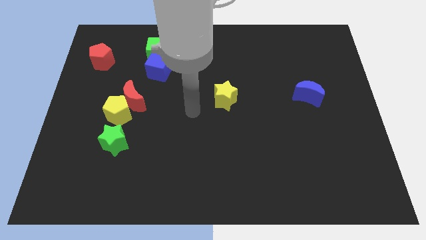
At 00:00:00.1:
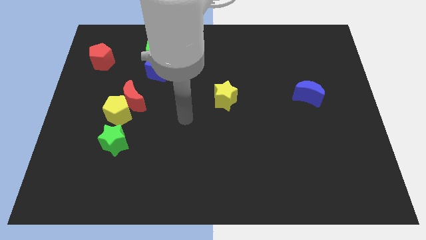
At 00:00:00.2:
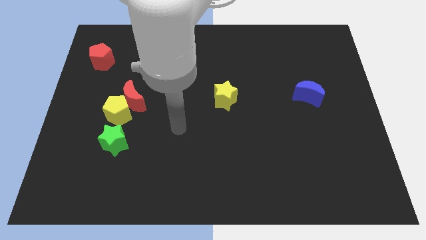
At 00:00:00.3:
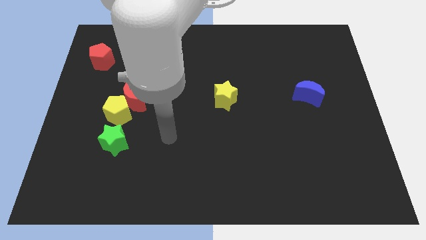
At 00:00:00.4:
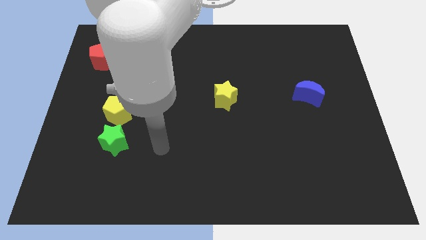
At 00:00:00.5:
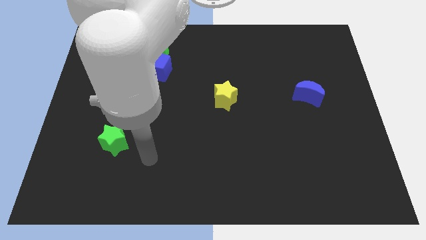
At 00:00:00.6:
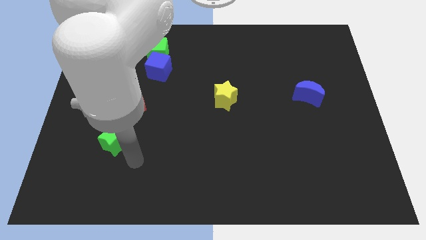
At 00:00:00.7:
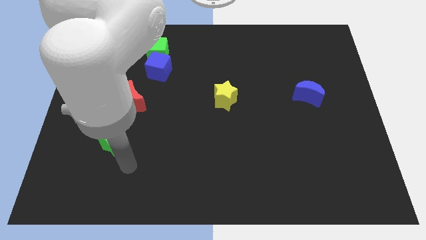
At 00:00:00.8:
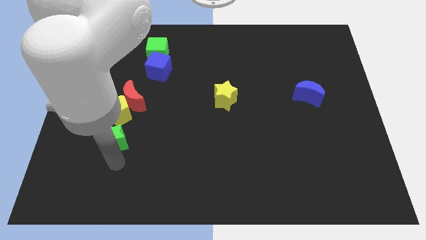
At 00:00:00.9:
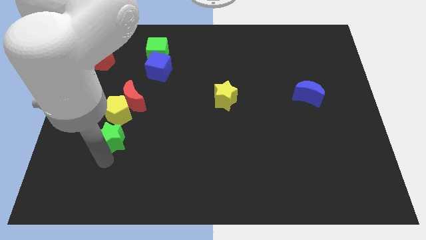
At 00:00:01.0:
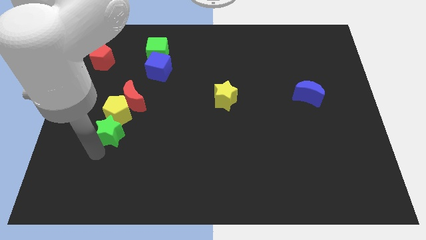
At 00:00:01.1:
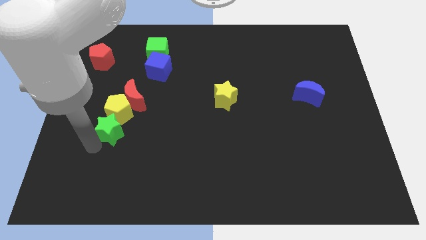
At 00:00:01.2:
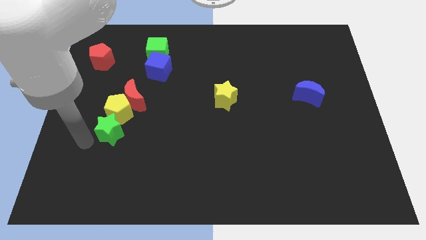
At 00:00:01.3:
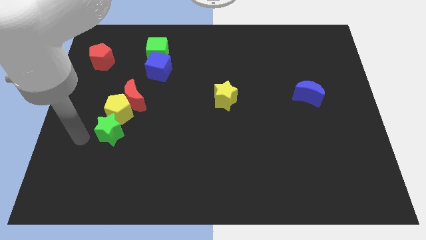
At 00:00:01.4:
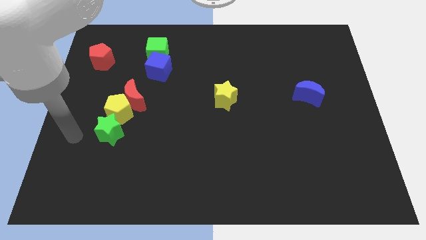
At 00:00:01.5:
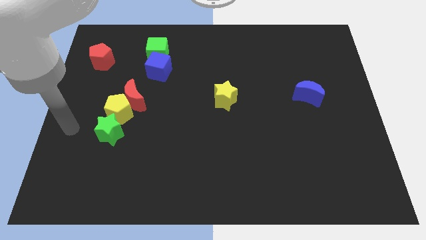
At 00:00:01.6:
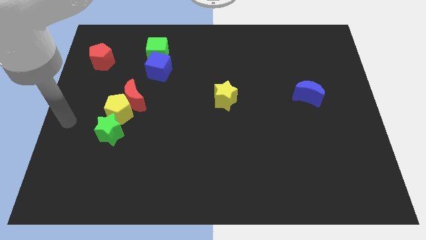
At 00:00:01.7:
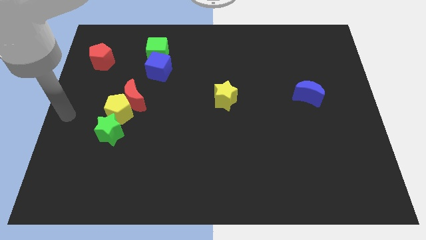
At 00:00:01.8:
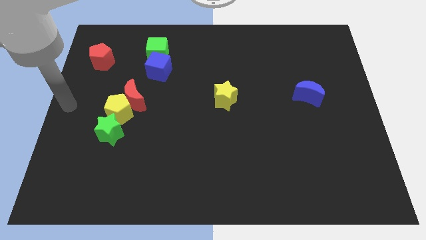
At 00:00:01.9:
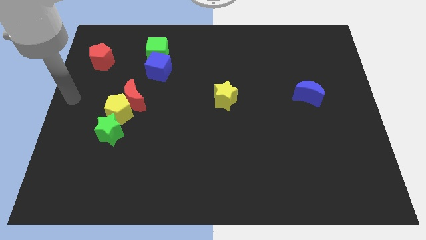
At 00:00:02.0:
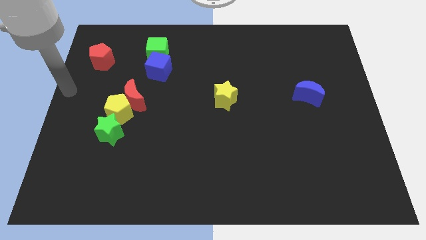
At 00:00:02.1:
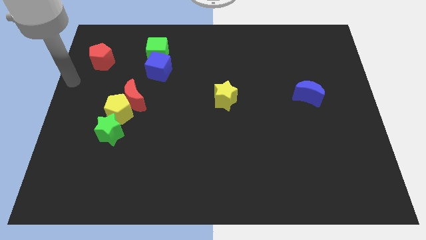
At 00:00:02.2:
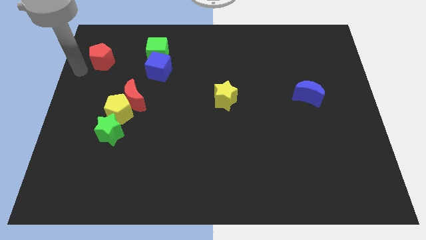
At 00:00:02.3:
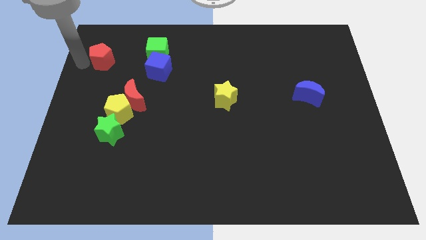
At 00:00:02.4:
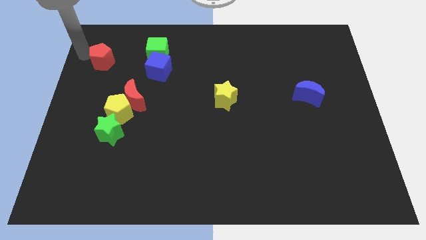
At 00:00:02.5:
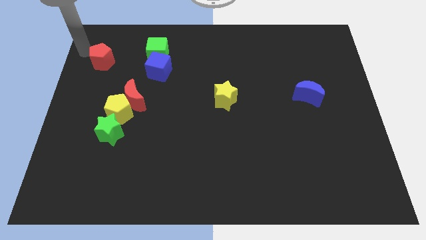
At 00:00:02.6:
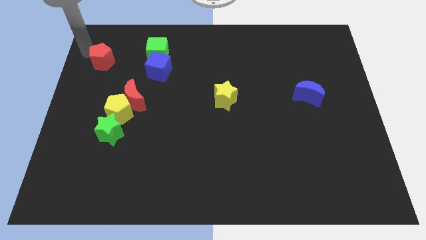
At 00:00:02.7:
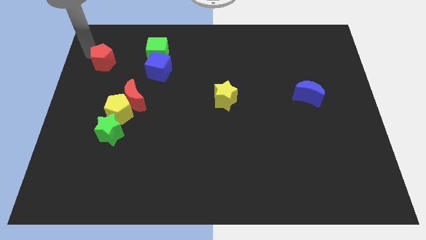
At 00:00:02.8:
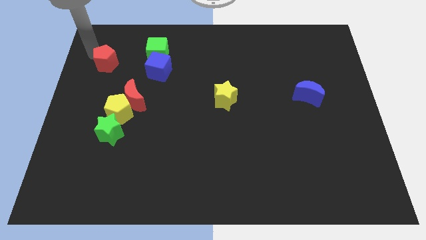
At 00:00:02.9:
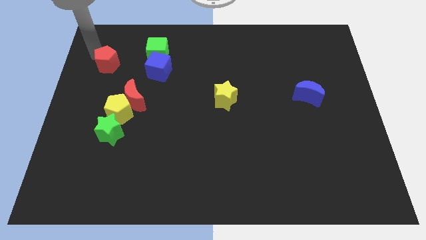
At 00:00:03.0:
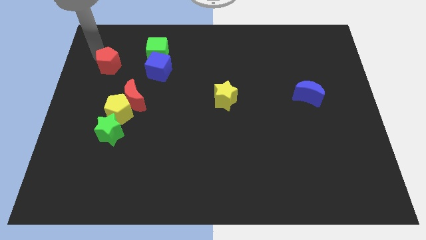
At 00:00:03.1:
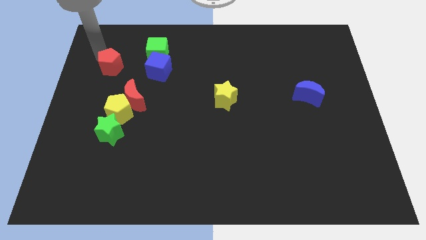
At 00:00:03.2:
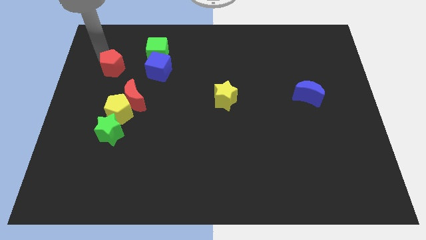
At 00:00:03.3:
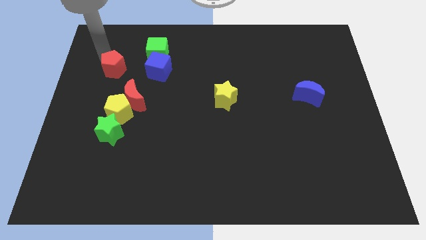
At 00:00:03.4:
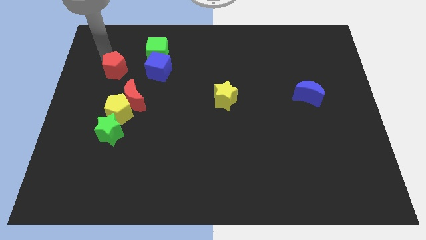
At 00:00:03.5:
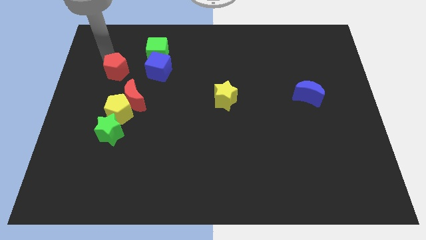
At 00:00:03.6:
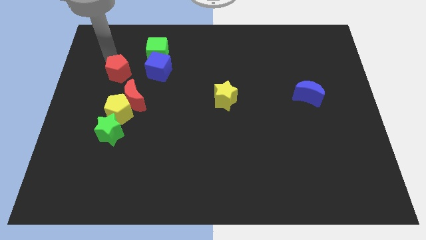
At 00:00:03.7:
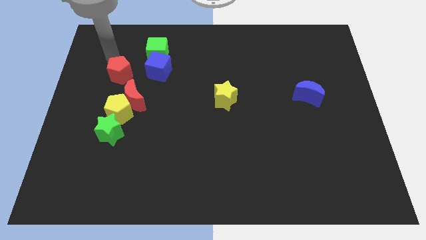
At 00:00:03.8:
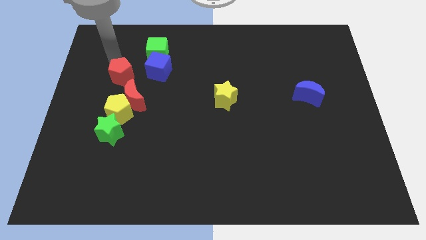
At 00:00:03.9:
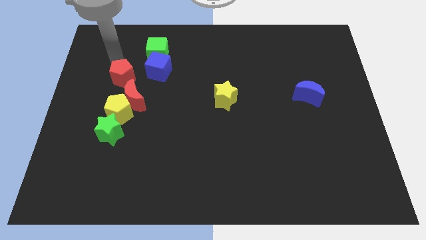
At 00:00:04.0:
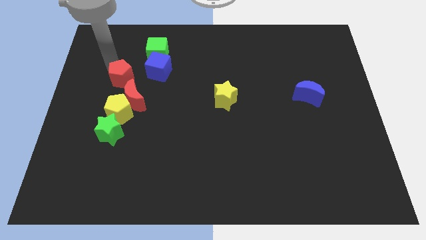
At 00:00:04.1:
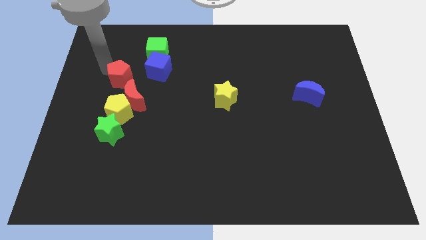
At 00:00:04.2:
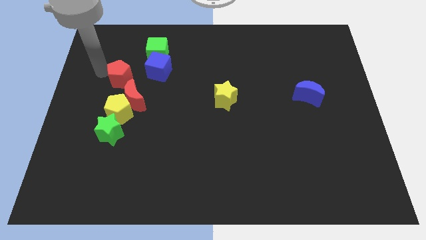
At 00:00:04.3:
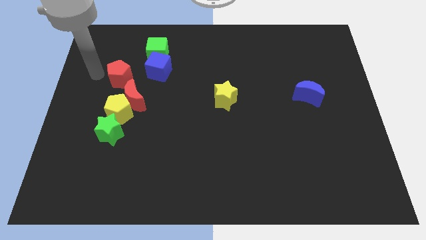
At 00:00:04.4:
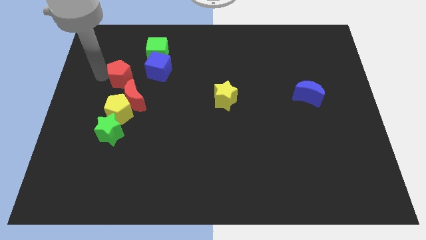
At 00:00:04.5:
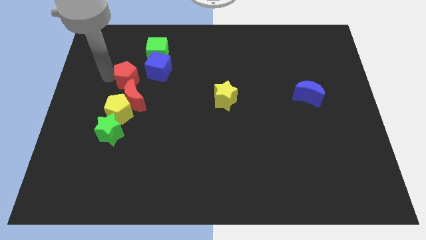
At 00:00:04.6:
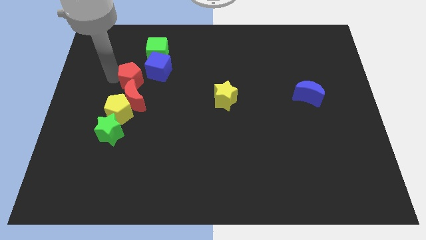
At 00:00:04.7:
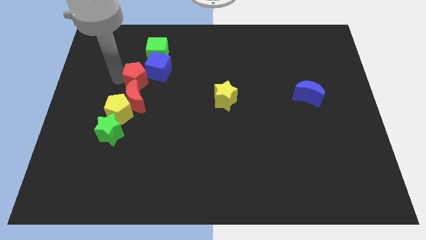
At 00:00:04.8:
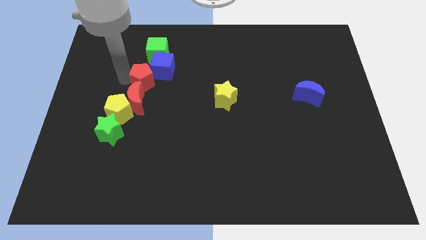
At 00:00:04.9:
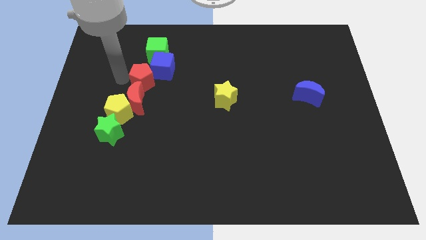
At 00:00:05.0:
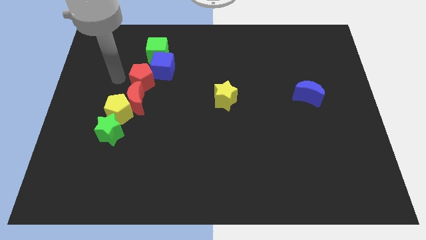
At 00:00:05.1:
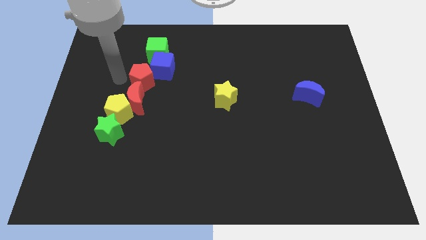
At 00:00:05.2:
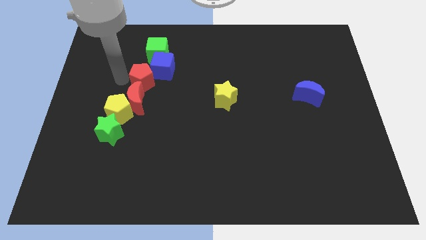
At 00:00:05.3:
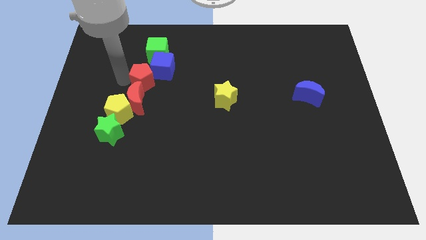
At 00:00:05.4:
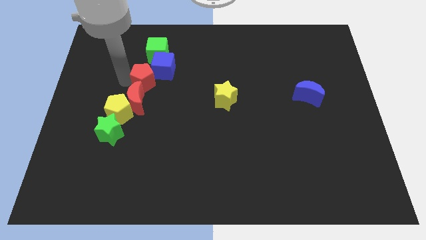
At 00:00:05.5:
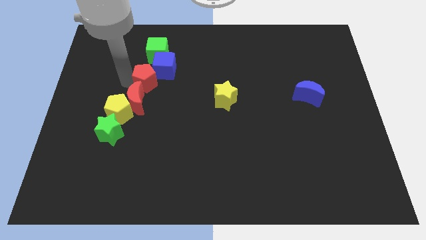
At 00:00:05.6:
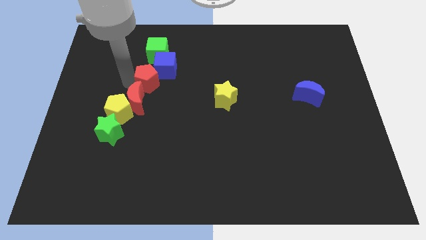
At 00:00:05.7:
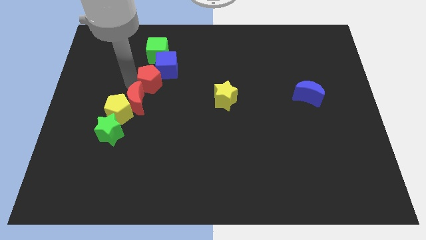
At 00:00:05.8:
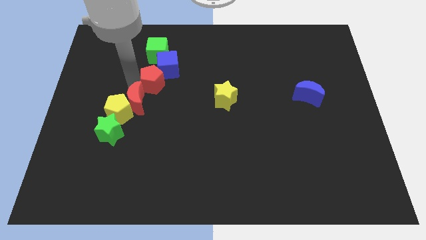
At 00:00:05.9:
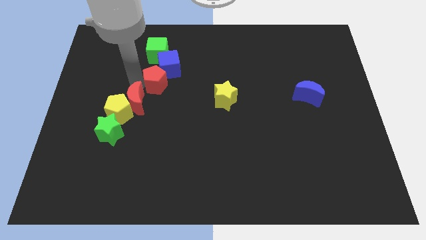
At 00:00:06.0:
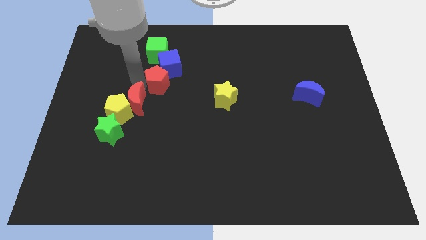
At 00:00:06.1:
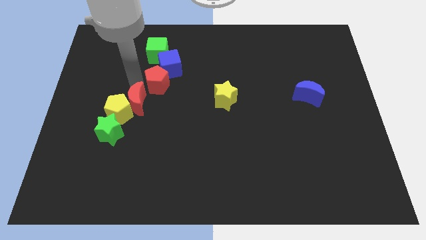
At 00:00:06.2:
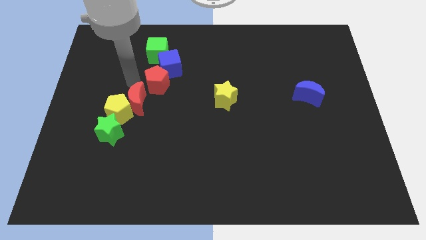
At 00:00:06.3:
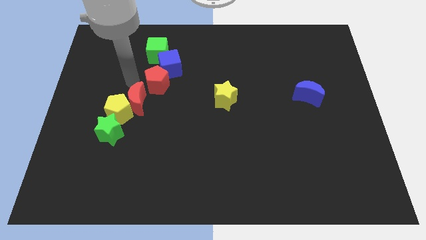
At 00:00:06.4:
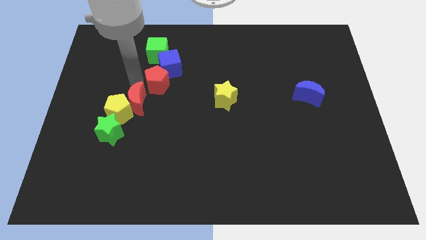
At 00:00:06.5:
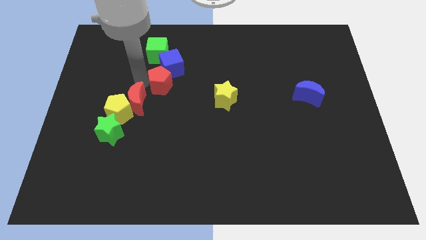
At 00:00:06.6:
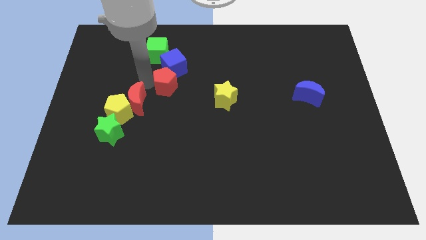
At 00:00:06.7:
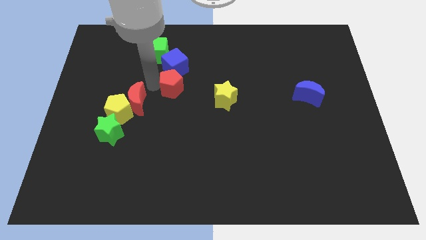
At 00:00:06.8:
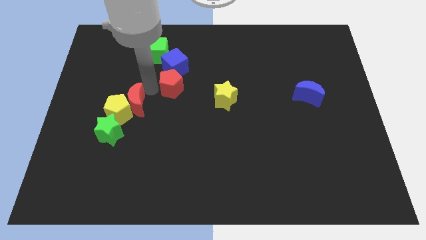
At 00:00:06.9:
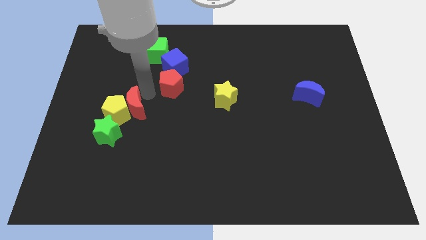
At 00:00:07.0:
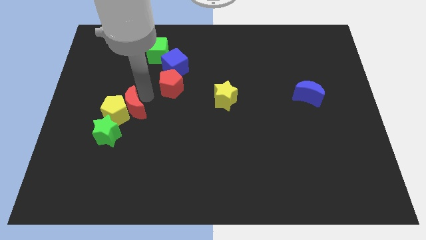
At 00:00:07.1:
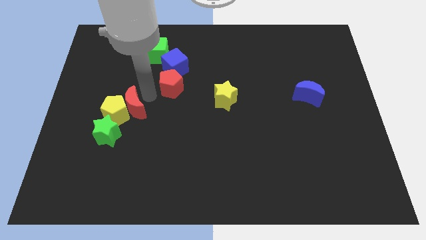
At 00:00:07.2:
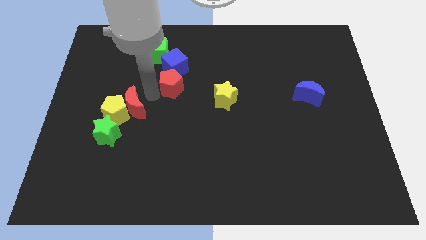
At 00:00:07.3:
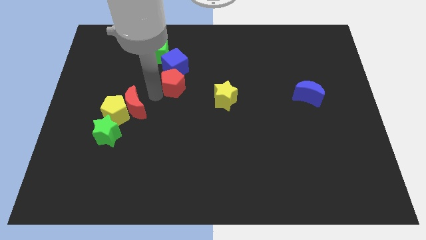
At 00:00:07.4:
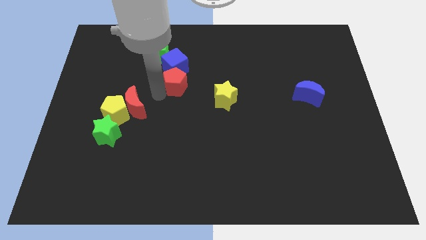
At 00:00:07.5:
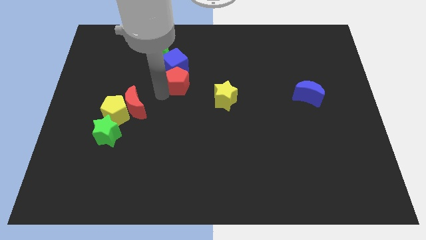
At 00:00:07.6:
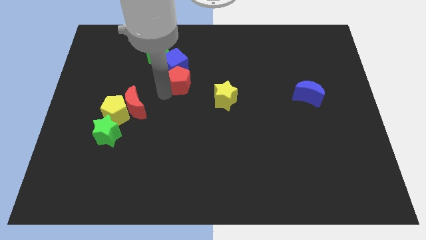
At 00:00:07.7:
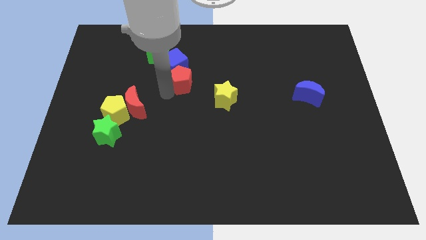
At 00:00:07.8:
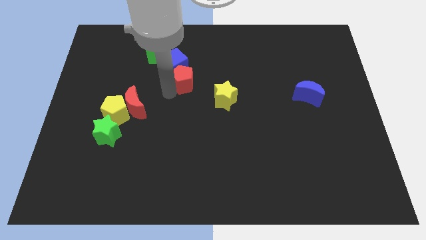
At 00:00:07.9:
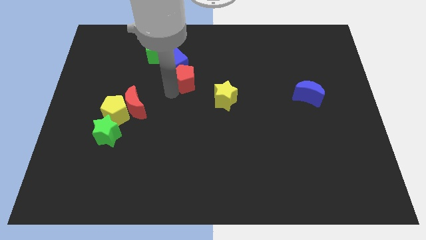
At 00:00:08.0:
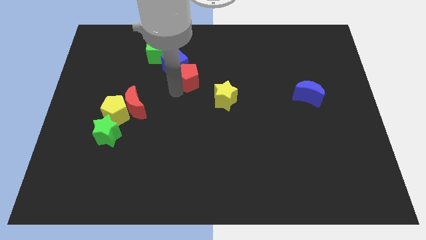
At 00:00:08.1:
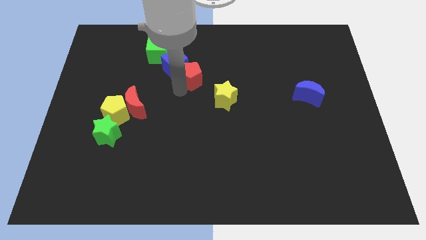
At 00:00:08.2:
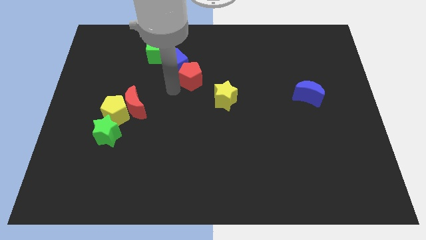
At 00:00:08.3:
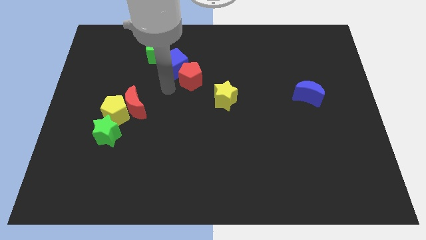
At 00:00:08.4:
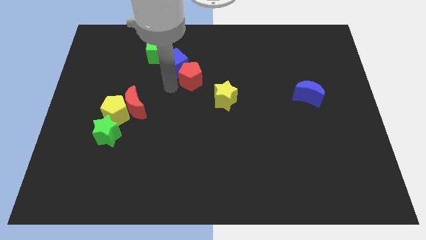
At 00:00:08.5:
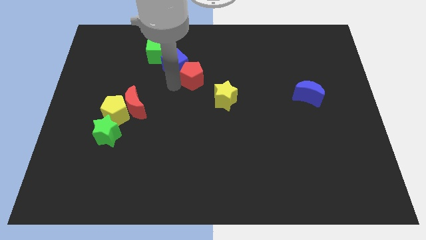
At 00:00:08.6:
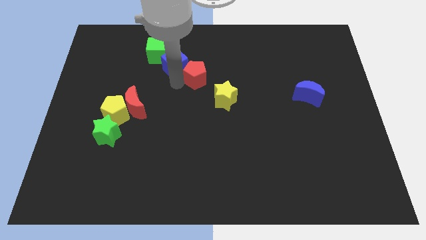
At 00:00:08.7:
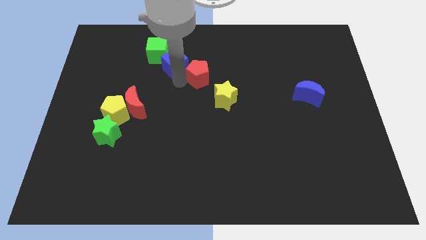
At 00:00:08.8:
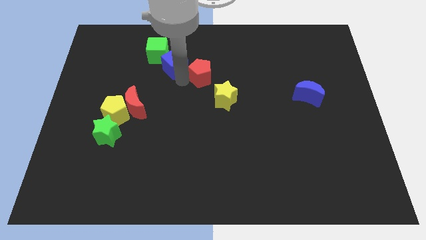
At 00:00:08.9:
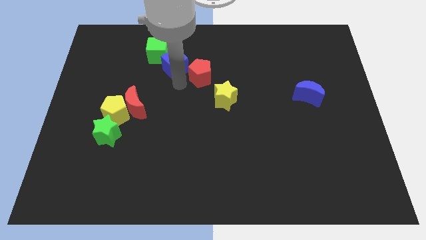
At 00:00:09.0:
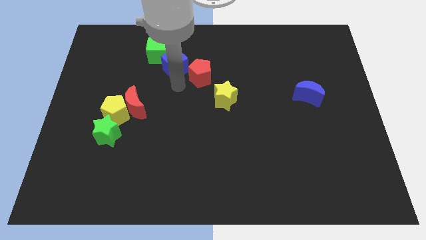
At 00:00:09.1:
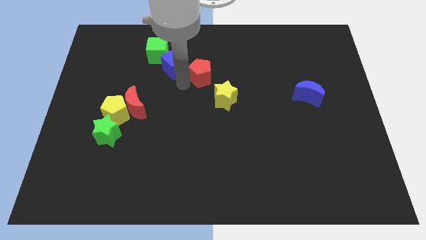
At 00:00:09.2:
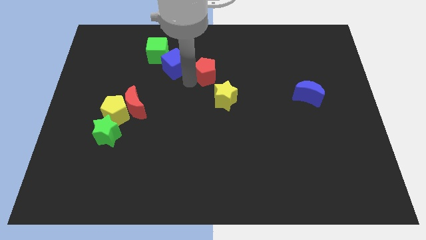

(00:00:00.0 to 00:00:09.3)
push the red pentagon above the yellow star
